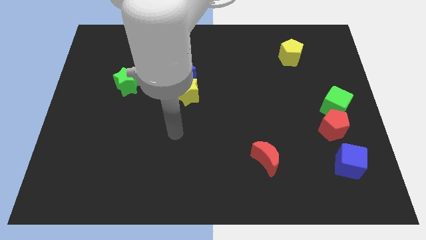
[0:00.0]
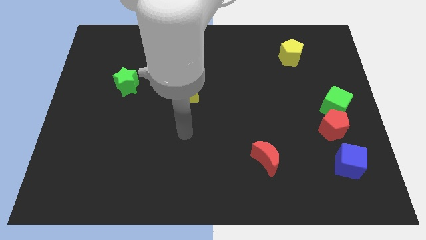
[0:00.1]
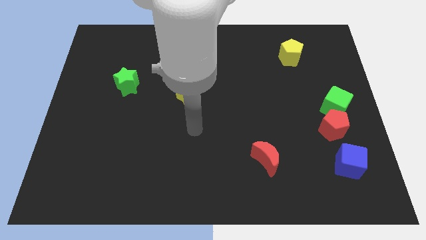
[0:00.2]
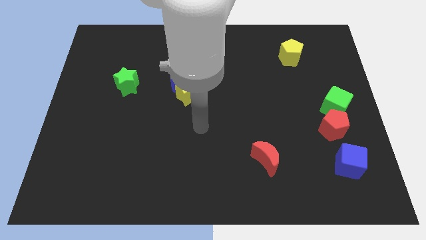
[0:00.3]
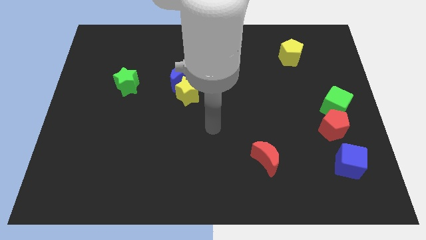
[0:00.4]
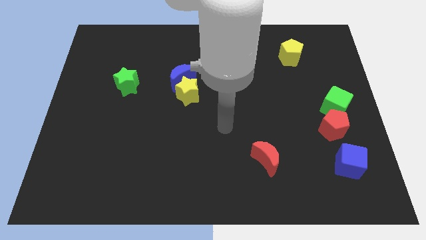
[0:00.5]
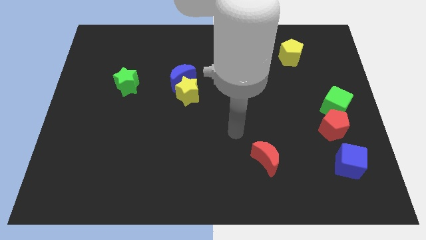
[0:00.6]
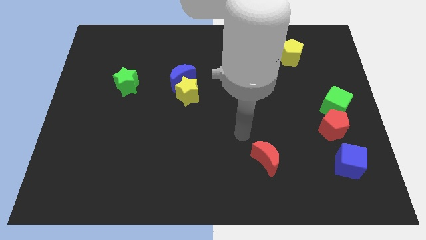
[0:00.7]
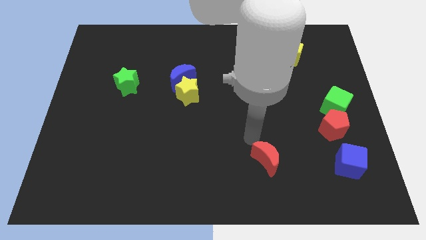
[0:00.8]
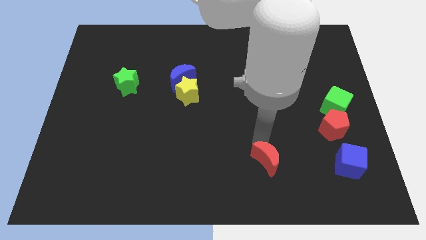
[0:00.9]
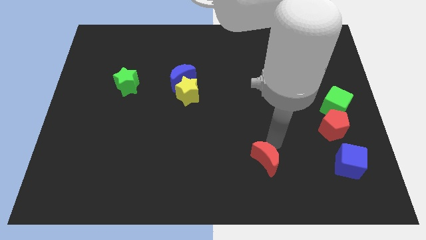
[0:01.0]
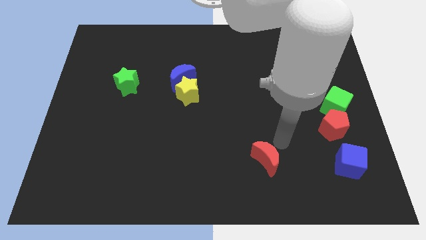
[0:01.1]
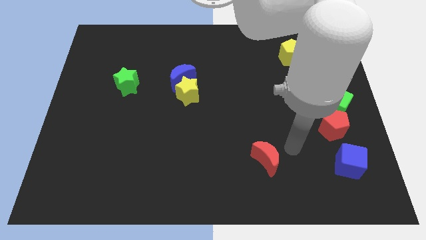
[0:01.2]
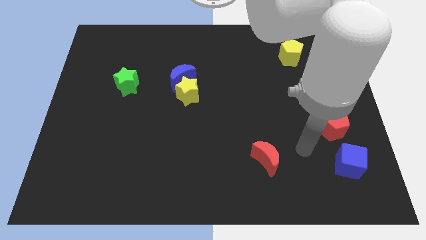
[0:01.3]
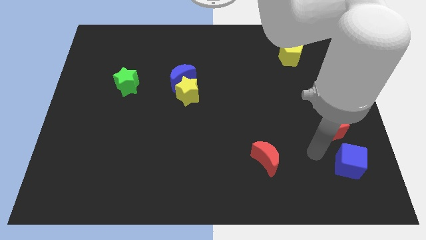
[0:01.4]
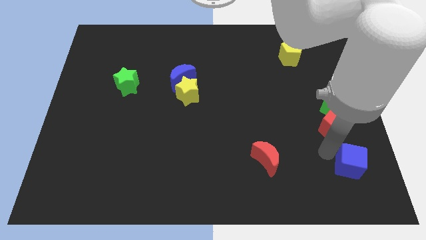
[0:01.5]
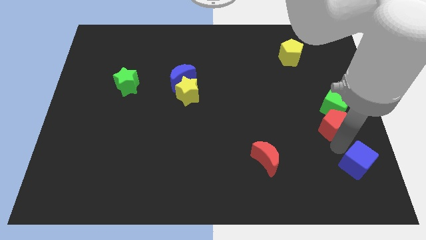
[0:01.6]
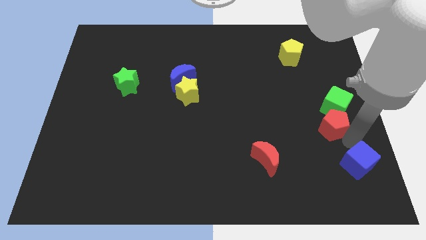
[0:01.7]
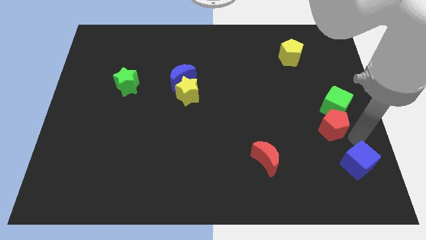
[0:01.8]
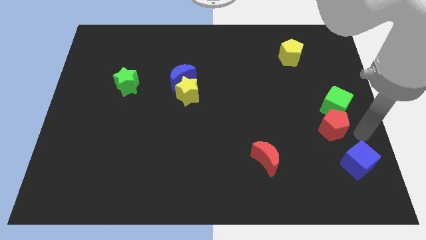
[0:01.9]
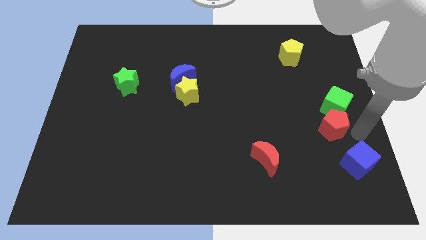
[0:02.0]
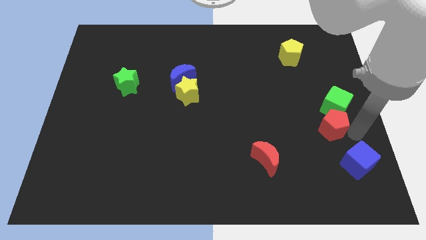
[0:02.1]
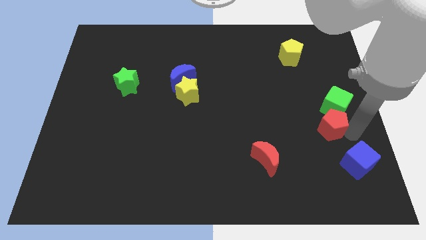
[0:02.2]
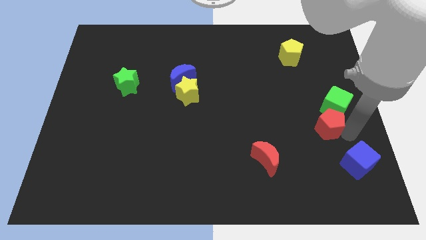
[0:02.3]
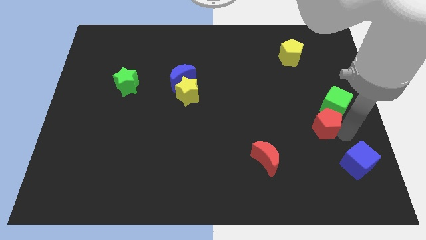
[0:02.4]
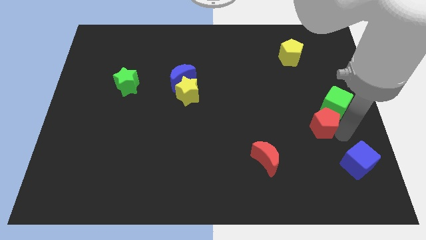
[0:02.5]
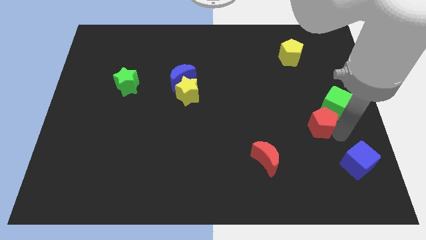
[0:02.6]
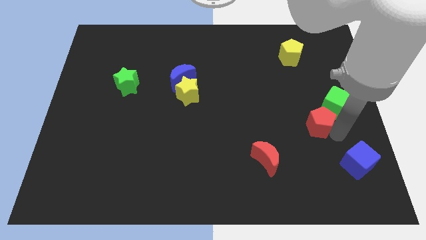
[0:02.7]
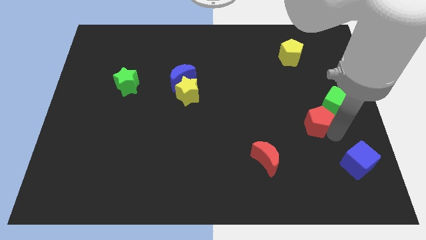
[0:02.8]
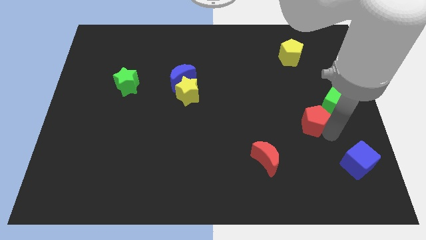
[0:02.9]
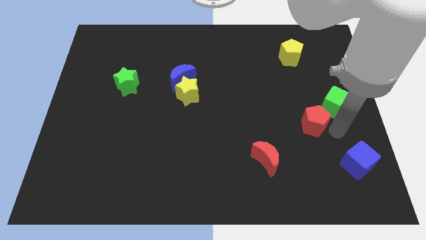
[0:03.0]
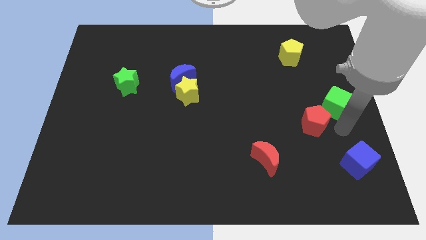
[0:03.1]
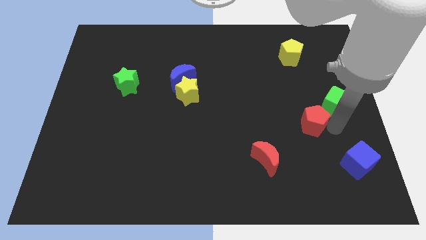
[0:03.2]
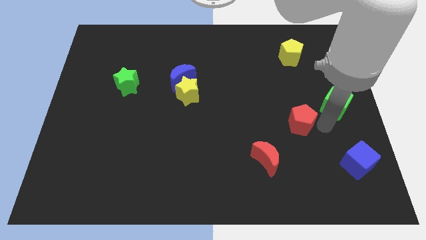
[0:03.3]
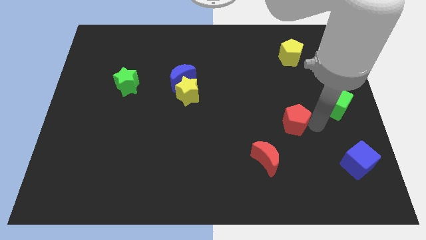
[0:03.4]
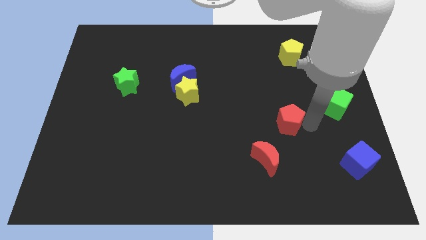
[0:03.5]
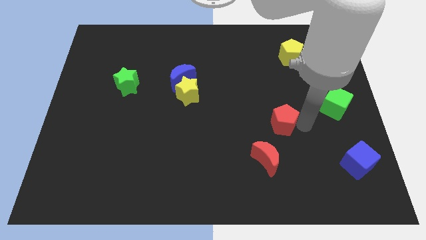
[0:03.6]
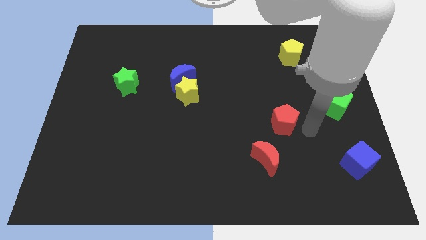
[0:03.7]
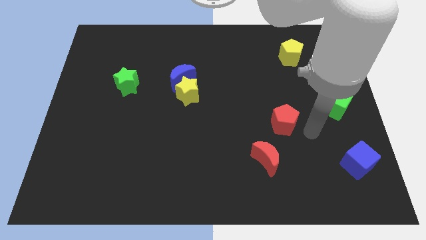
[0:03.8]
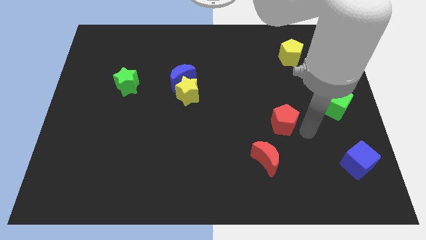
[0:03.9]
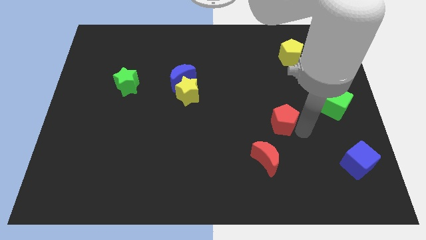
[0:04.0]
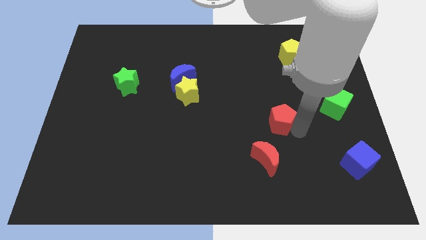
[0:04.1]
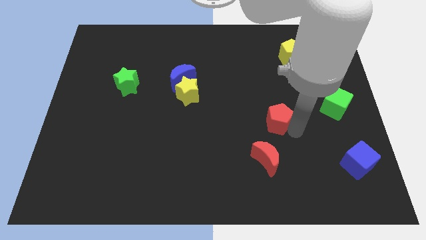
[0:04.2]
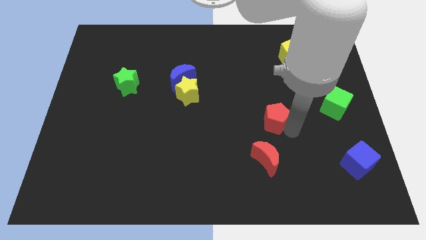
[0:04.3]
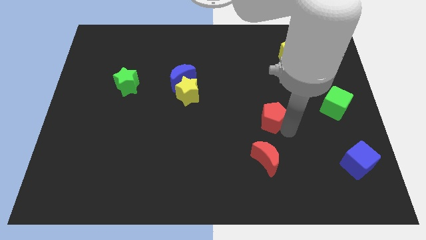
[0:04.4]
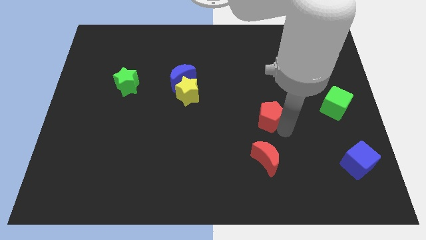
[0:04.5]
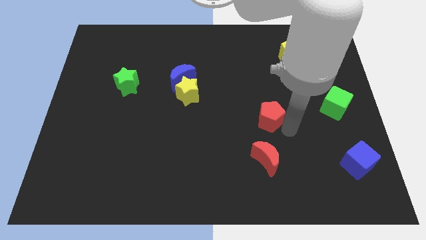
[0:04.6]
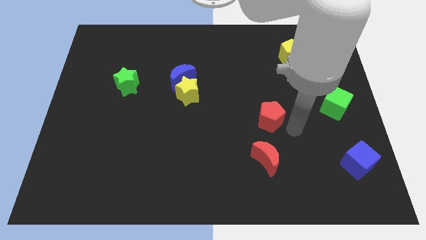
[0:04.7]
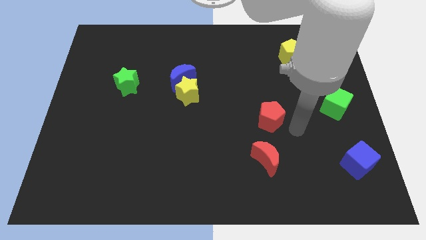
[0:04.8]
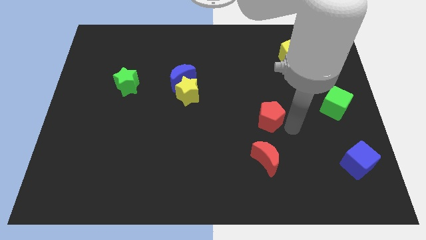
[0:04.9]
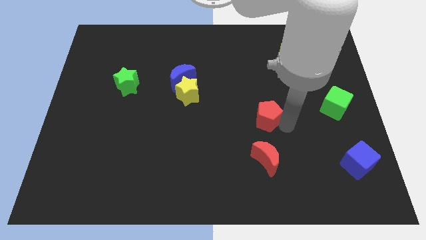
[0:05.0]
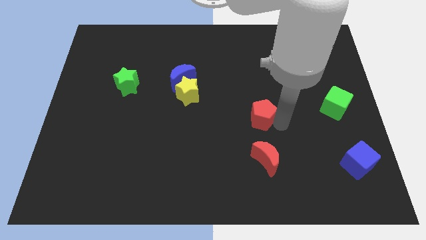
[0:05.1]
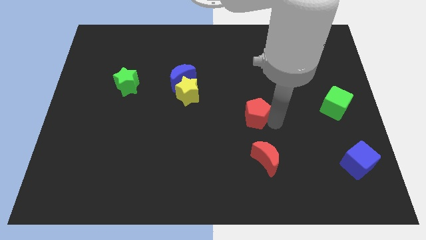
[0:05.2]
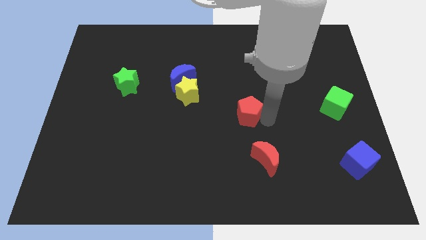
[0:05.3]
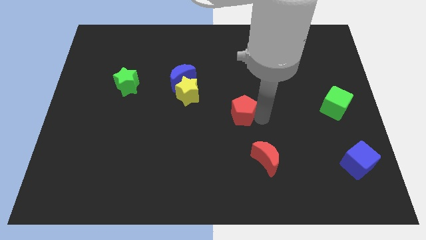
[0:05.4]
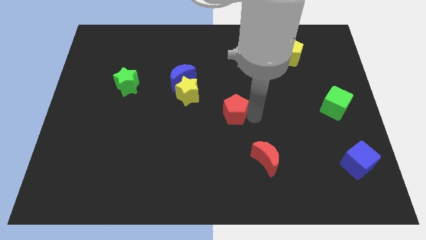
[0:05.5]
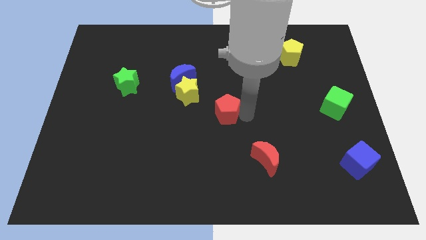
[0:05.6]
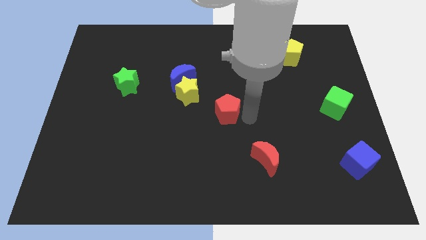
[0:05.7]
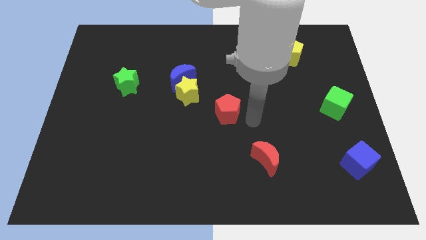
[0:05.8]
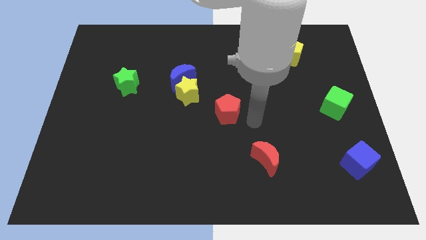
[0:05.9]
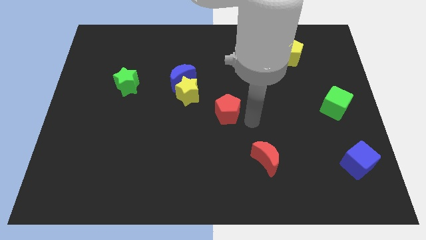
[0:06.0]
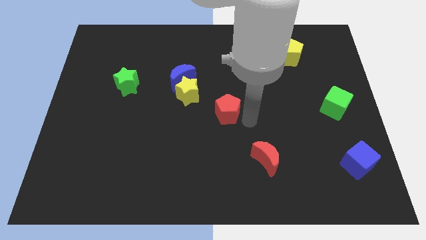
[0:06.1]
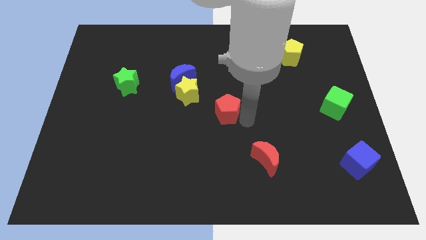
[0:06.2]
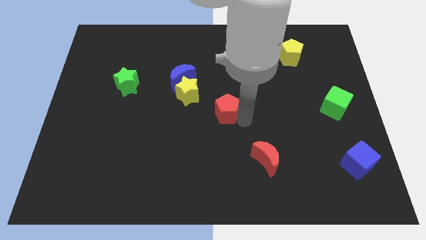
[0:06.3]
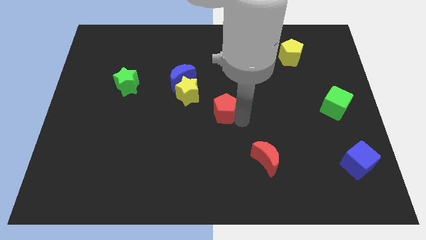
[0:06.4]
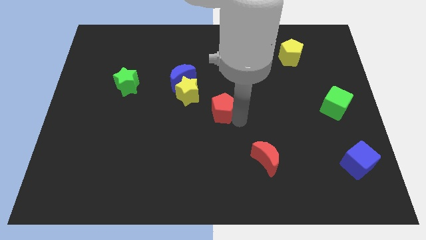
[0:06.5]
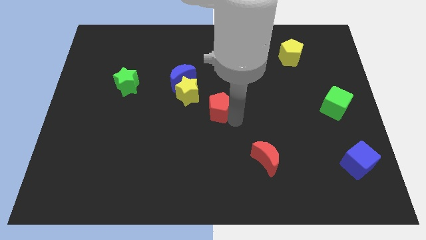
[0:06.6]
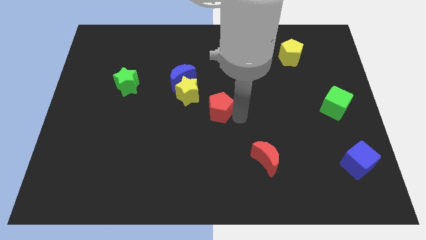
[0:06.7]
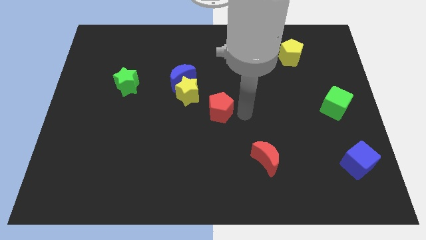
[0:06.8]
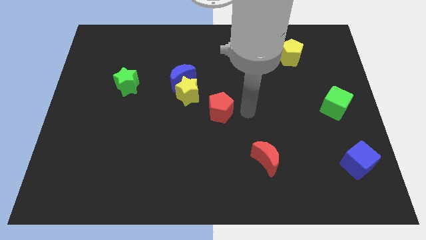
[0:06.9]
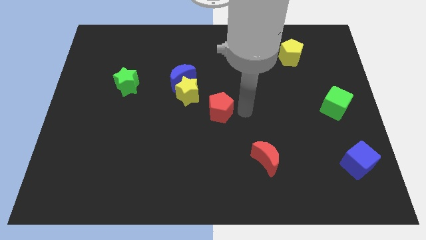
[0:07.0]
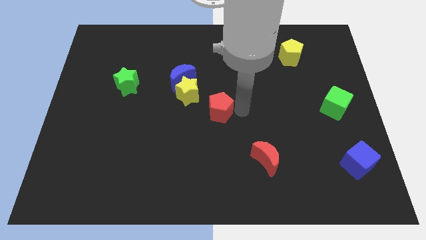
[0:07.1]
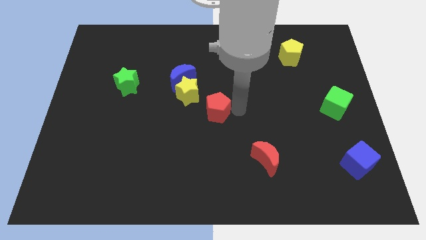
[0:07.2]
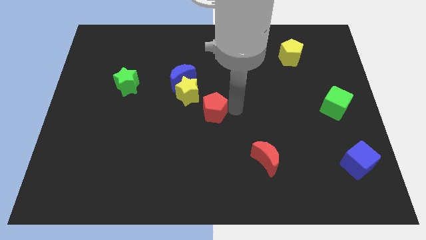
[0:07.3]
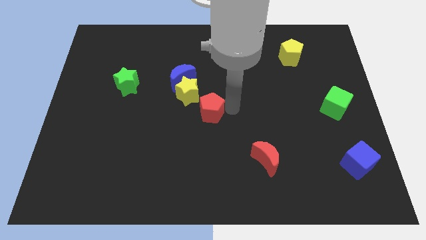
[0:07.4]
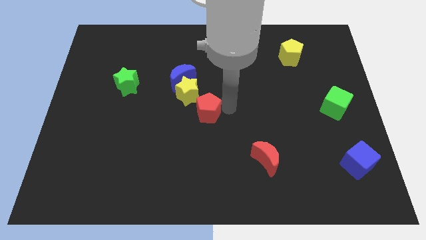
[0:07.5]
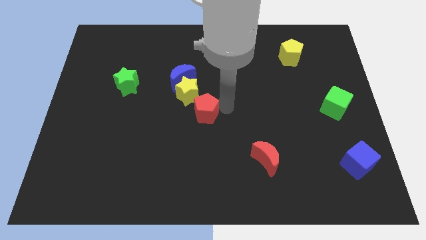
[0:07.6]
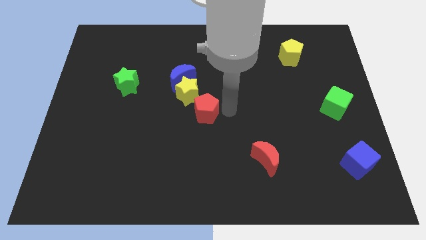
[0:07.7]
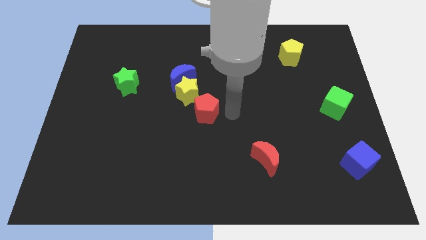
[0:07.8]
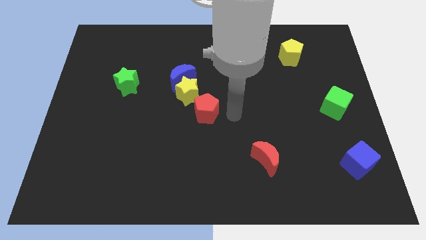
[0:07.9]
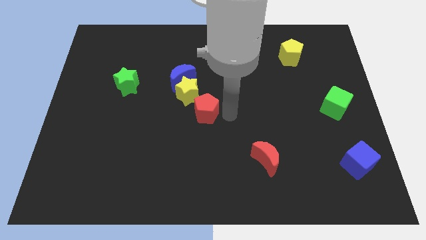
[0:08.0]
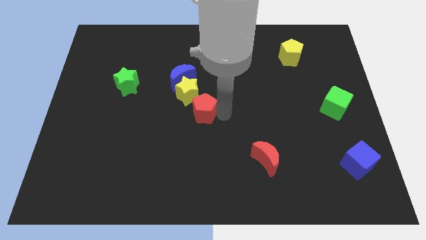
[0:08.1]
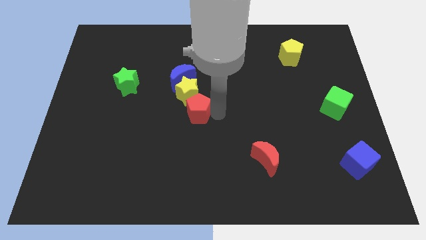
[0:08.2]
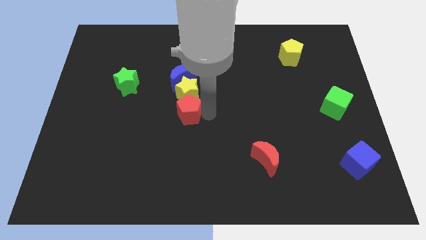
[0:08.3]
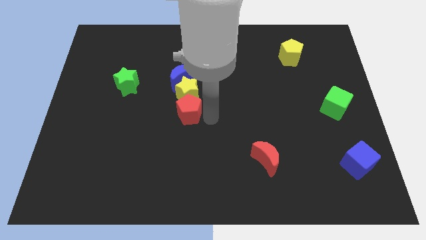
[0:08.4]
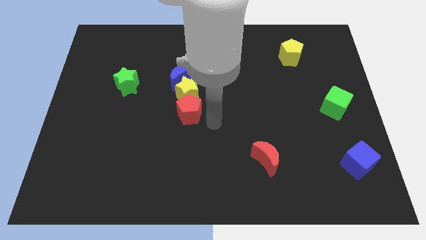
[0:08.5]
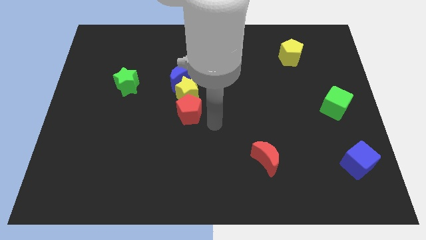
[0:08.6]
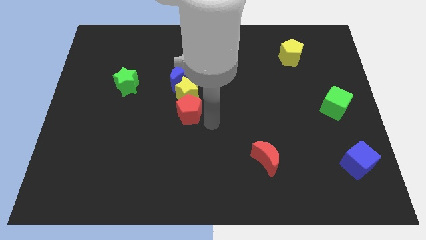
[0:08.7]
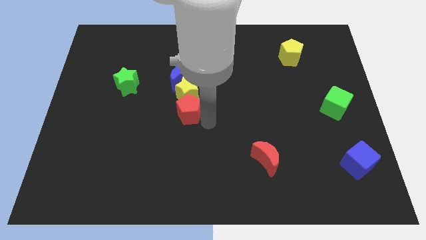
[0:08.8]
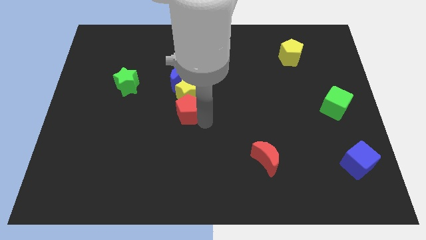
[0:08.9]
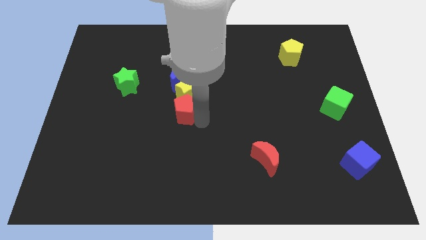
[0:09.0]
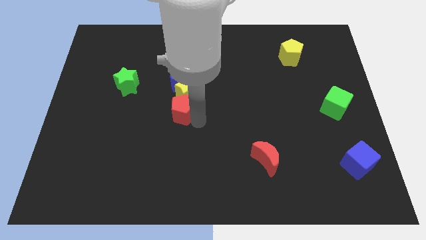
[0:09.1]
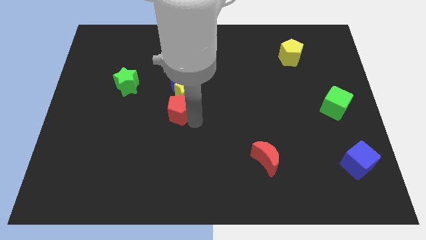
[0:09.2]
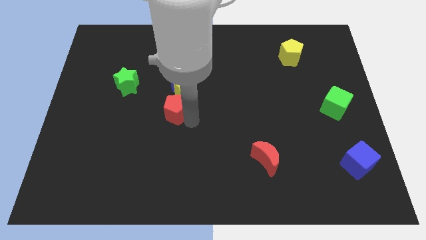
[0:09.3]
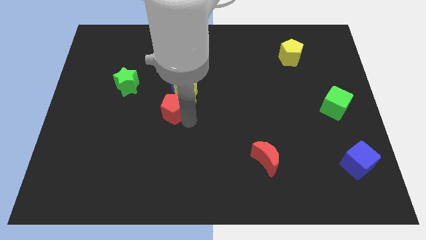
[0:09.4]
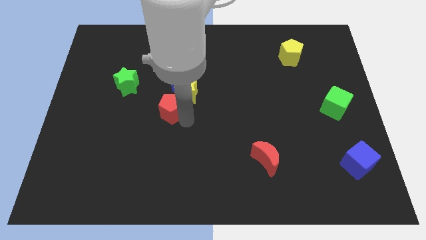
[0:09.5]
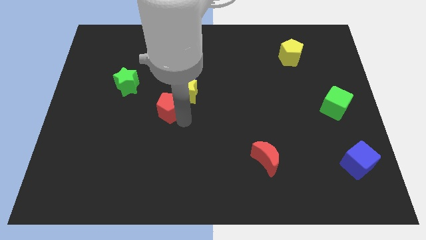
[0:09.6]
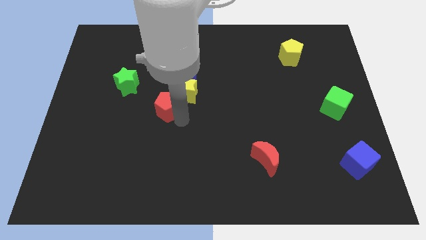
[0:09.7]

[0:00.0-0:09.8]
slide the red pentagon to the left of the yellow star
